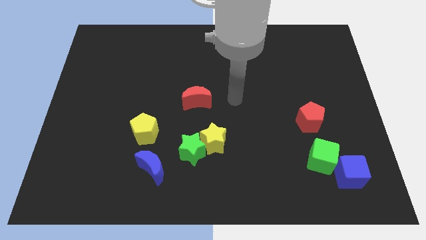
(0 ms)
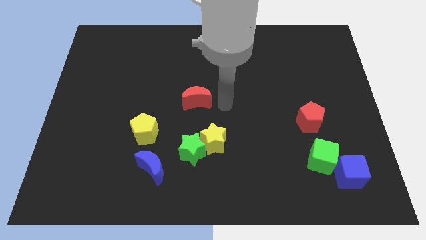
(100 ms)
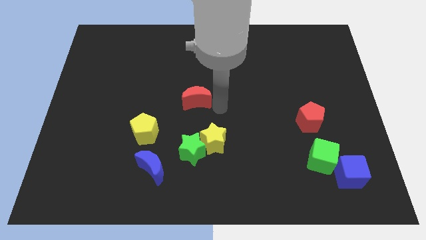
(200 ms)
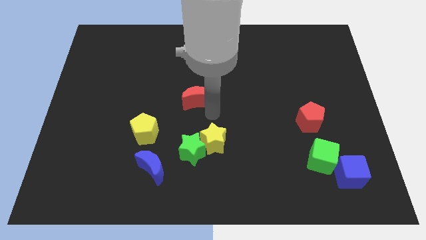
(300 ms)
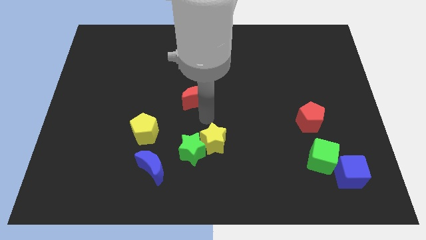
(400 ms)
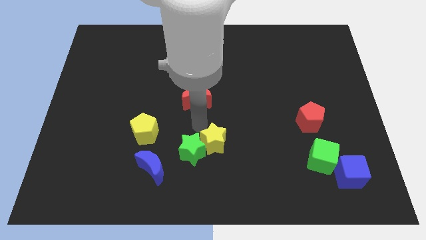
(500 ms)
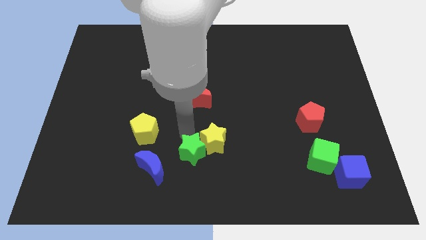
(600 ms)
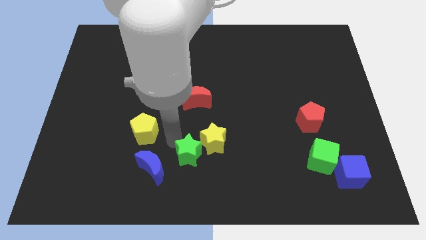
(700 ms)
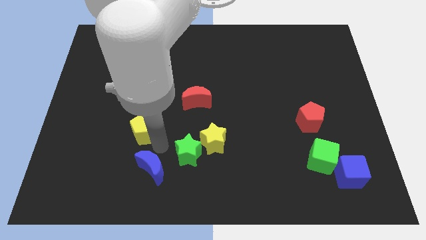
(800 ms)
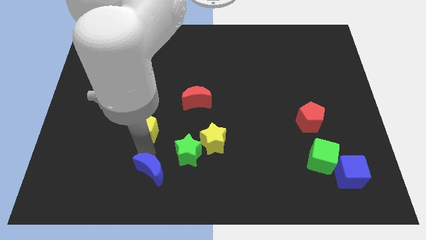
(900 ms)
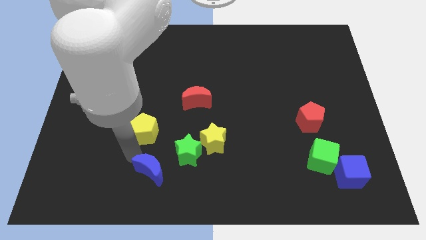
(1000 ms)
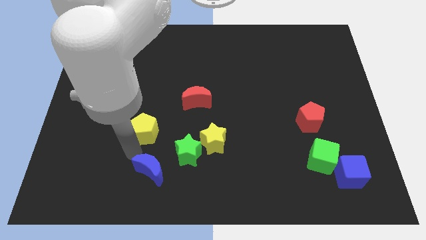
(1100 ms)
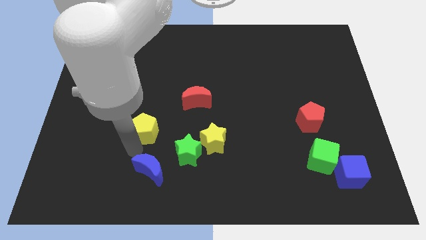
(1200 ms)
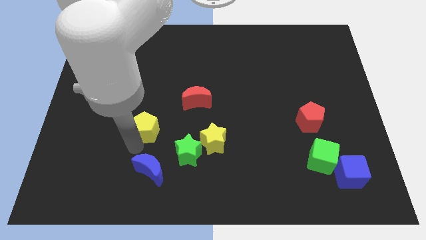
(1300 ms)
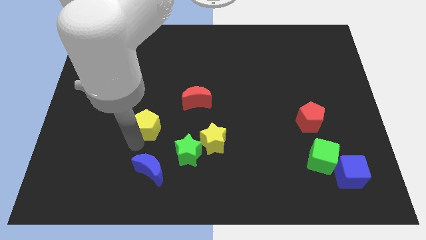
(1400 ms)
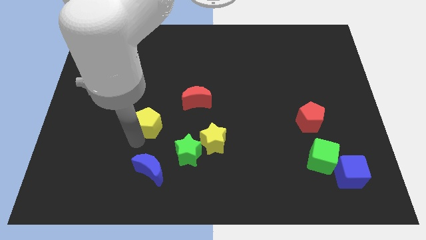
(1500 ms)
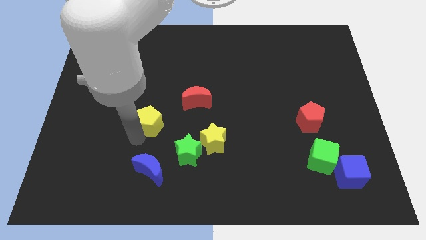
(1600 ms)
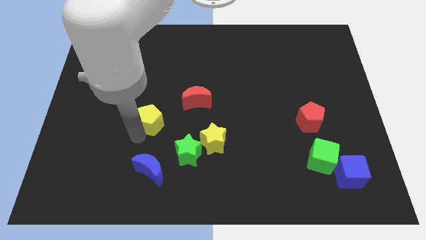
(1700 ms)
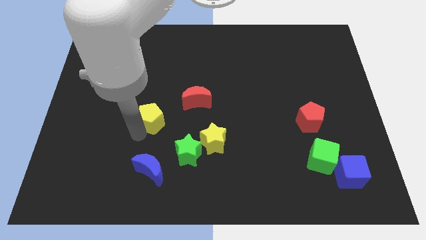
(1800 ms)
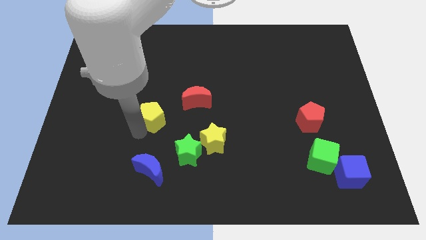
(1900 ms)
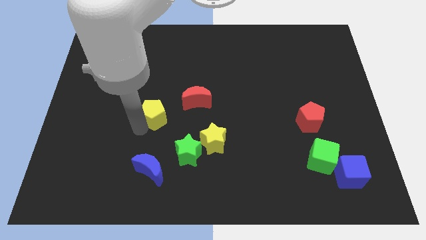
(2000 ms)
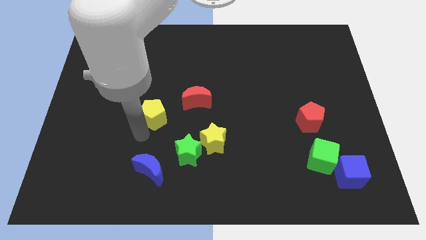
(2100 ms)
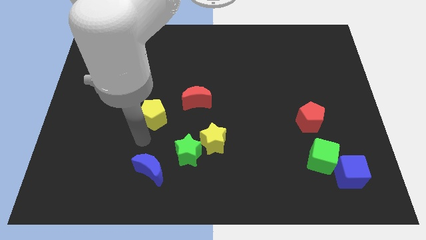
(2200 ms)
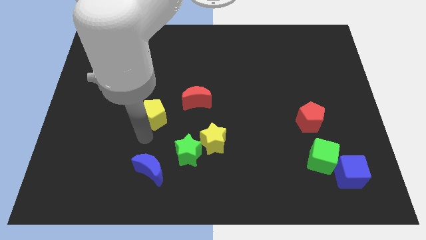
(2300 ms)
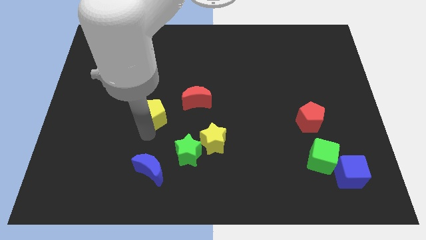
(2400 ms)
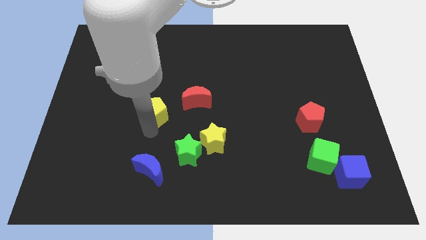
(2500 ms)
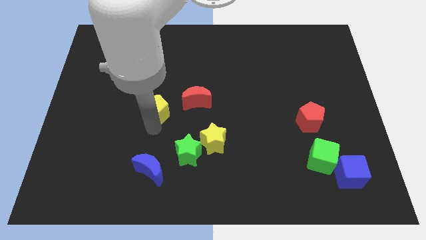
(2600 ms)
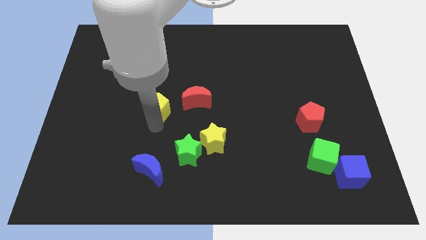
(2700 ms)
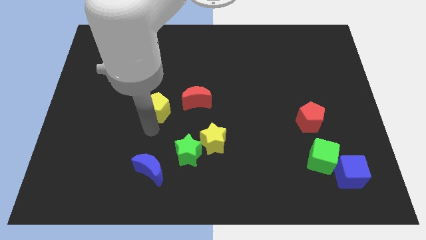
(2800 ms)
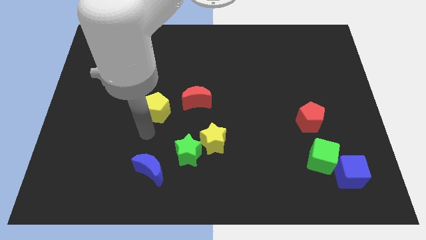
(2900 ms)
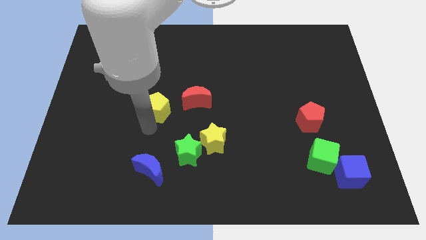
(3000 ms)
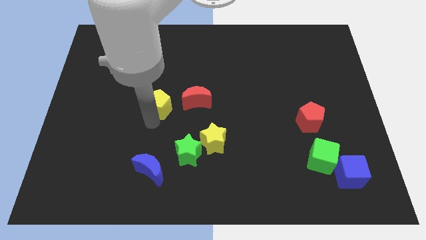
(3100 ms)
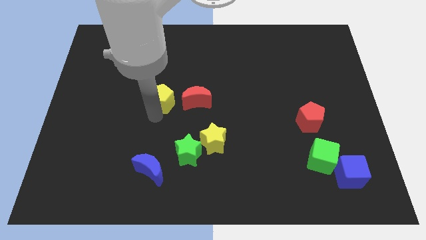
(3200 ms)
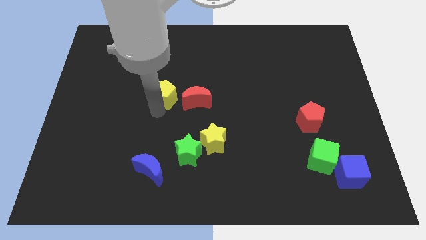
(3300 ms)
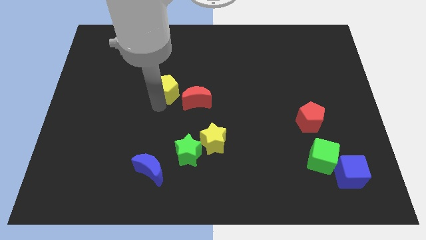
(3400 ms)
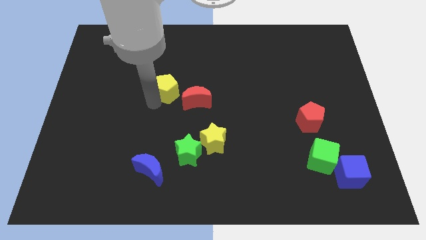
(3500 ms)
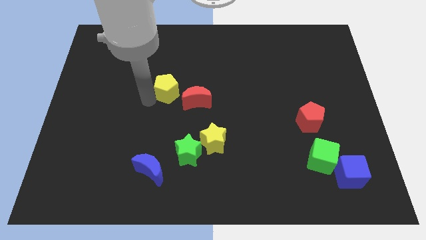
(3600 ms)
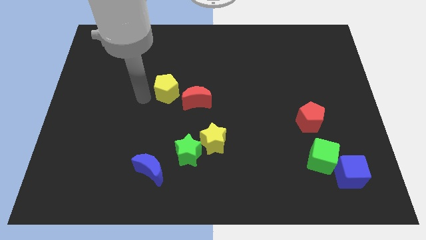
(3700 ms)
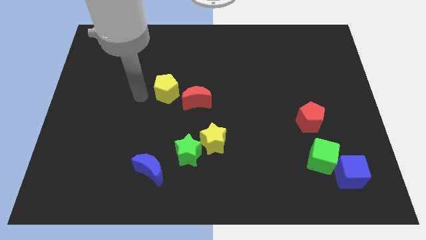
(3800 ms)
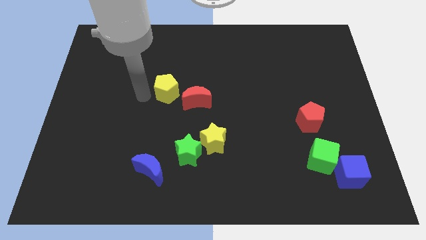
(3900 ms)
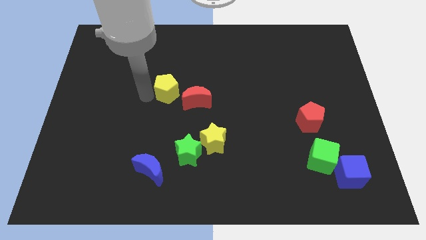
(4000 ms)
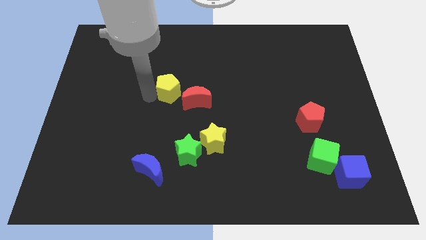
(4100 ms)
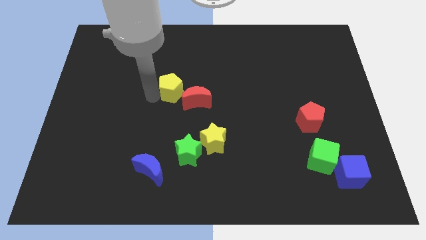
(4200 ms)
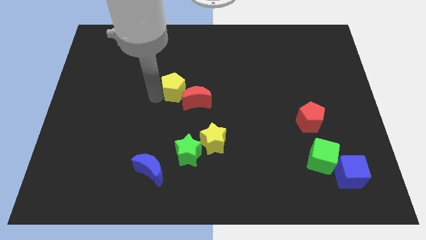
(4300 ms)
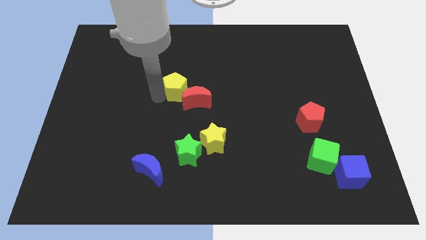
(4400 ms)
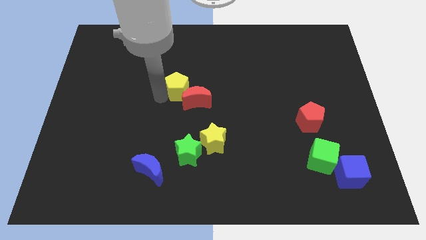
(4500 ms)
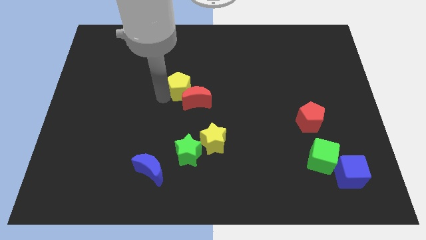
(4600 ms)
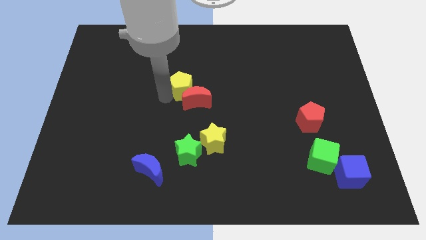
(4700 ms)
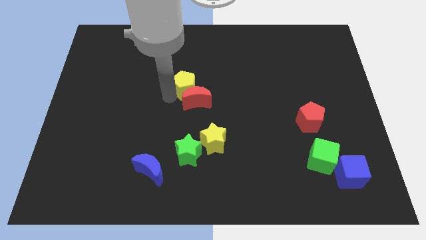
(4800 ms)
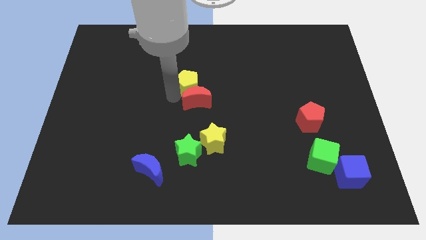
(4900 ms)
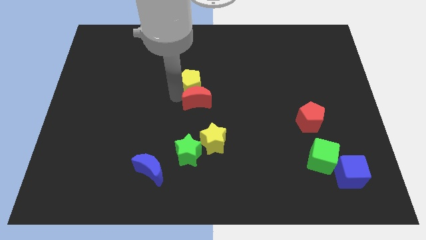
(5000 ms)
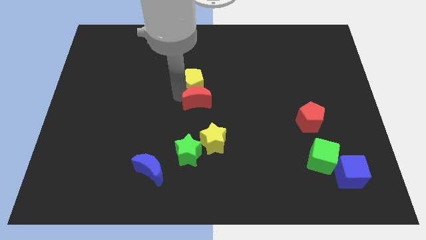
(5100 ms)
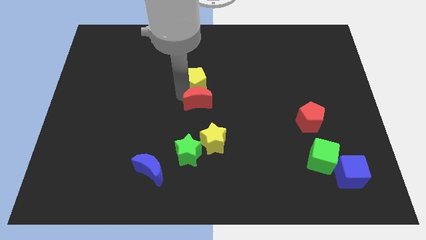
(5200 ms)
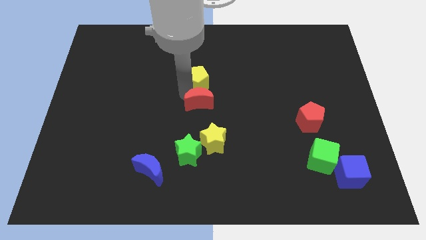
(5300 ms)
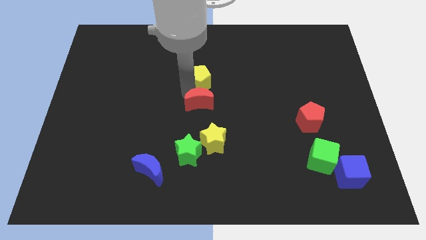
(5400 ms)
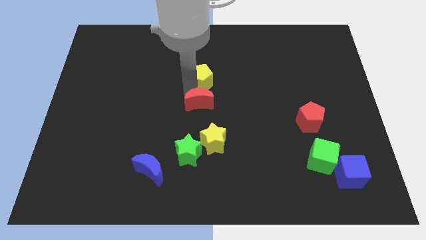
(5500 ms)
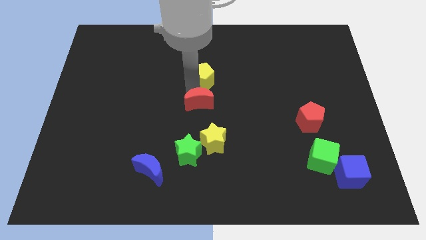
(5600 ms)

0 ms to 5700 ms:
move the yellow pentagon upwards and to the right diagonally

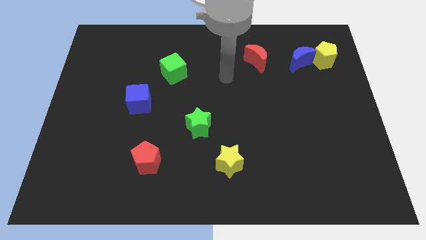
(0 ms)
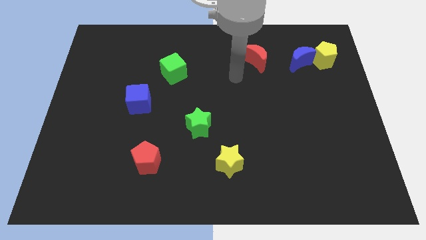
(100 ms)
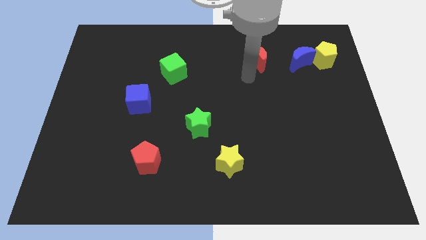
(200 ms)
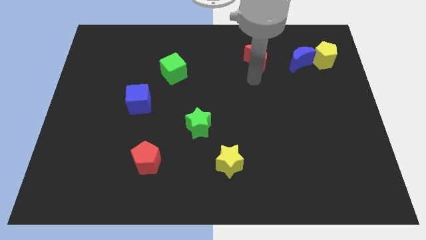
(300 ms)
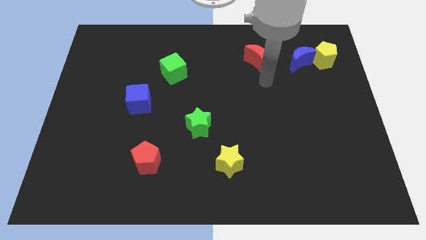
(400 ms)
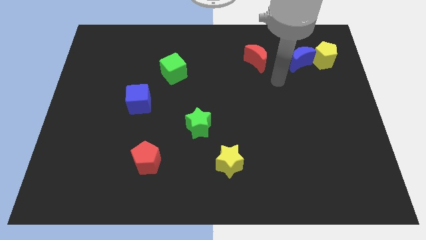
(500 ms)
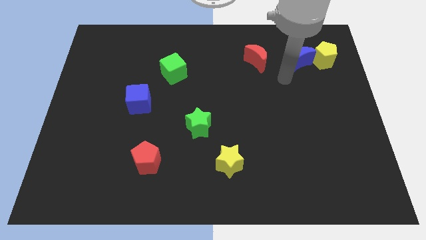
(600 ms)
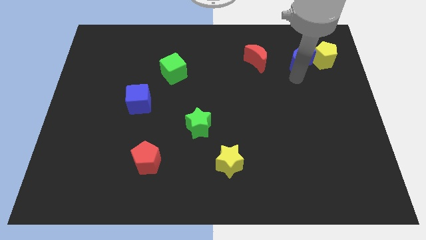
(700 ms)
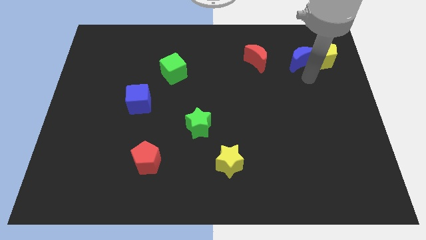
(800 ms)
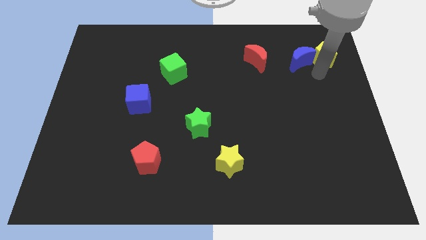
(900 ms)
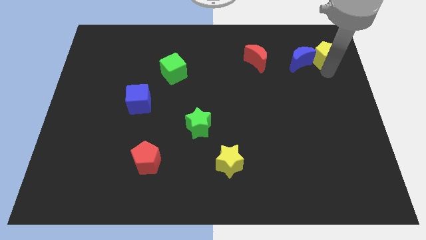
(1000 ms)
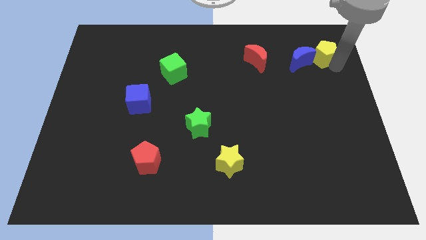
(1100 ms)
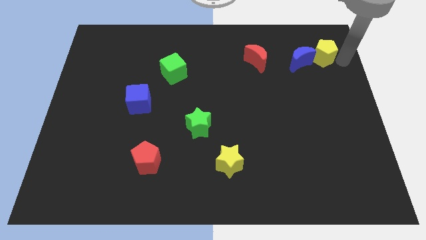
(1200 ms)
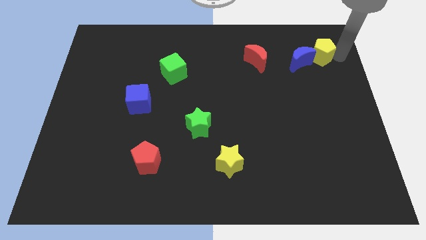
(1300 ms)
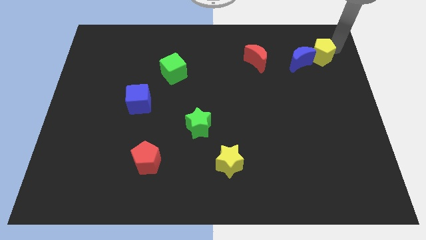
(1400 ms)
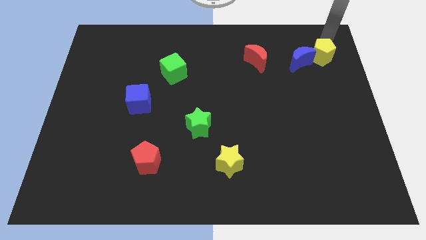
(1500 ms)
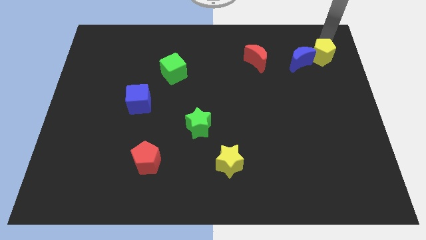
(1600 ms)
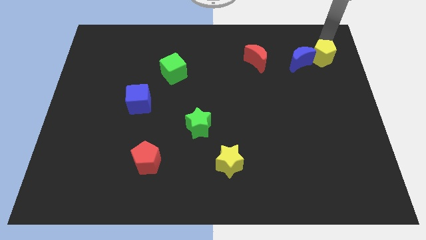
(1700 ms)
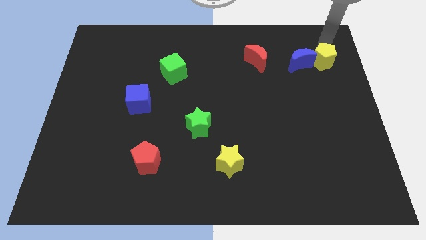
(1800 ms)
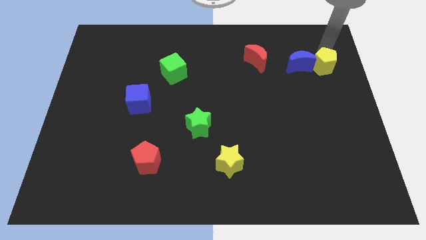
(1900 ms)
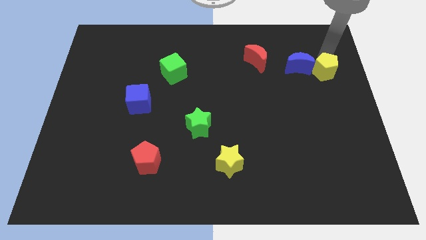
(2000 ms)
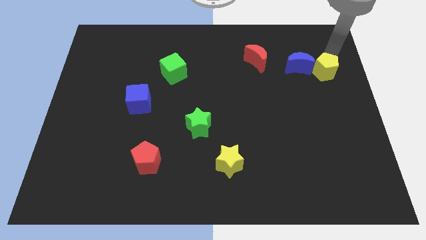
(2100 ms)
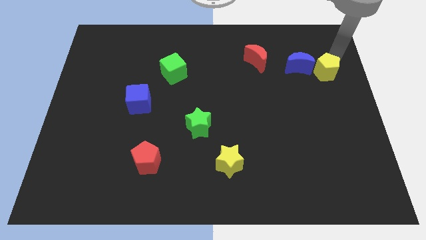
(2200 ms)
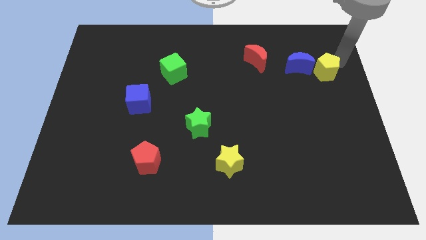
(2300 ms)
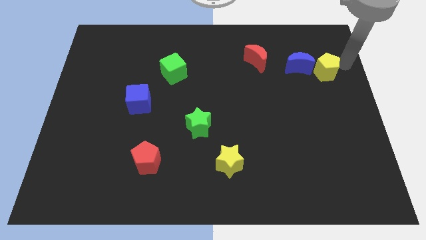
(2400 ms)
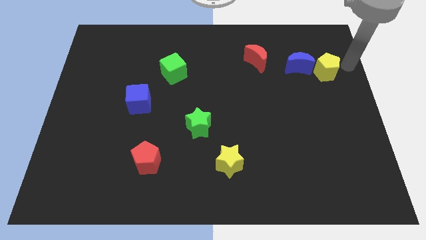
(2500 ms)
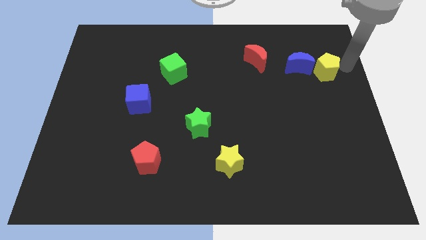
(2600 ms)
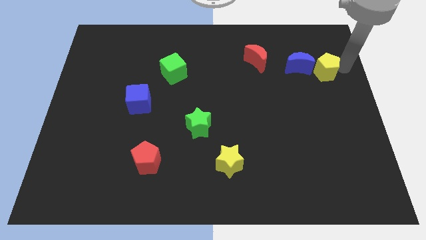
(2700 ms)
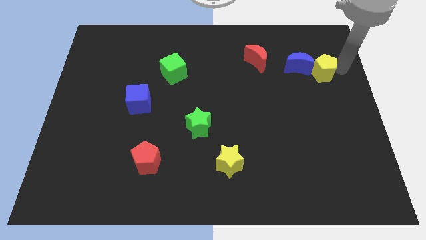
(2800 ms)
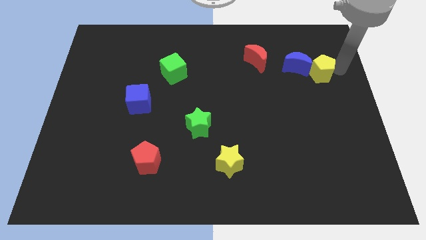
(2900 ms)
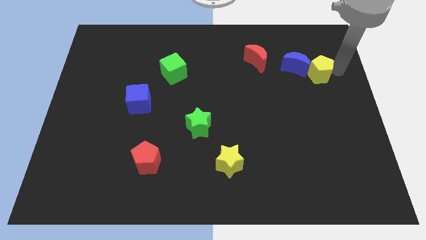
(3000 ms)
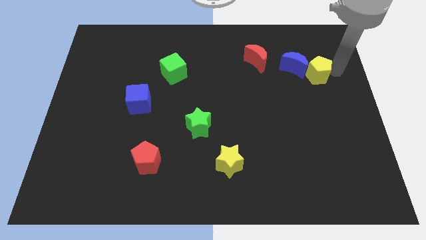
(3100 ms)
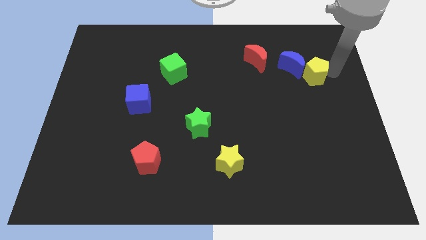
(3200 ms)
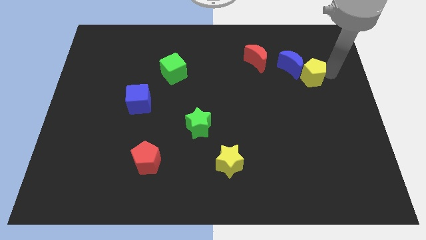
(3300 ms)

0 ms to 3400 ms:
slide the yellow pentagon diagonally downwards and left a little bit
